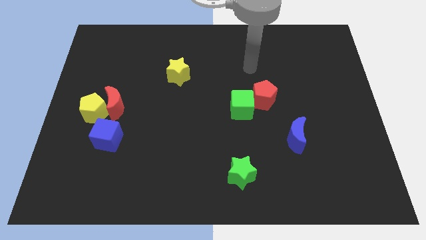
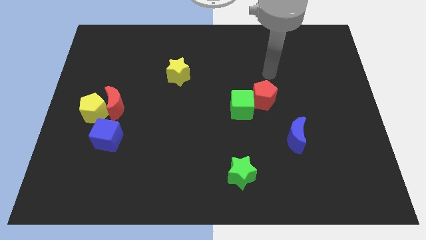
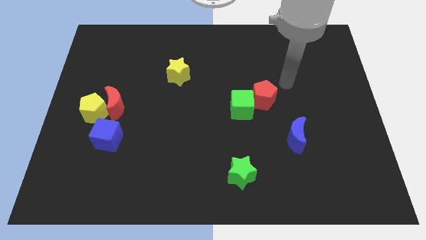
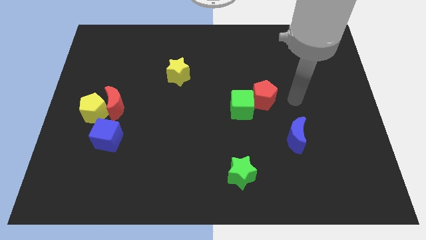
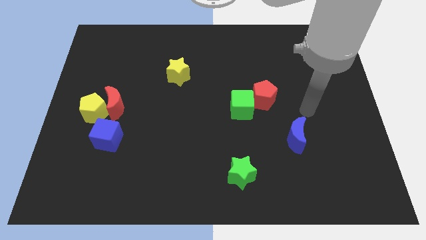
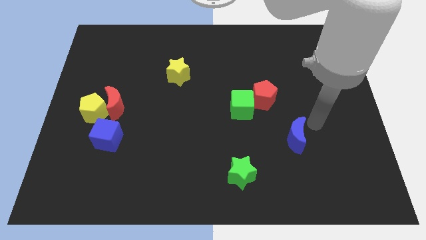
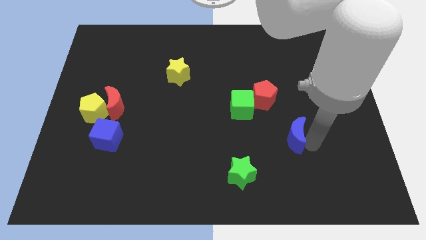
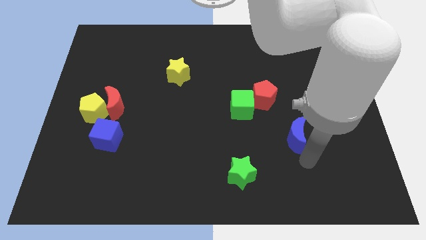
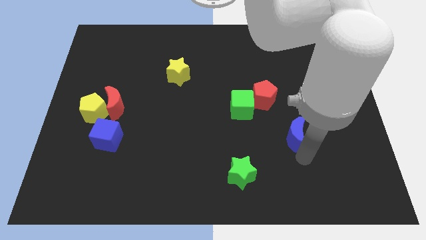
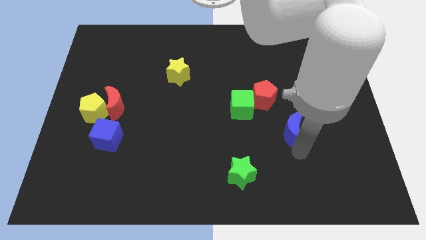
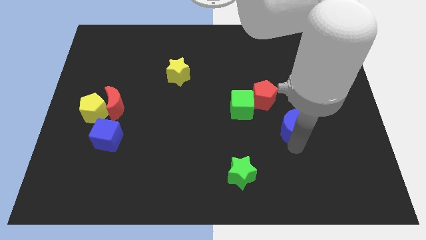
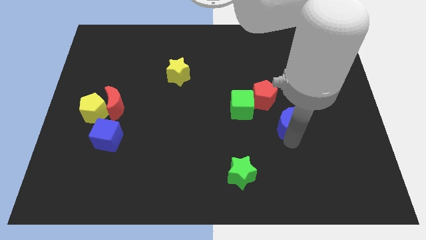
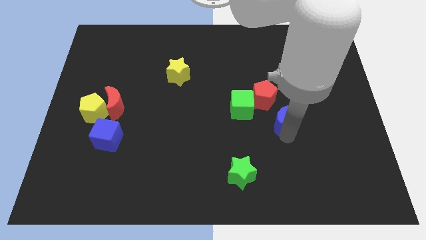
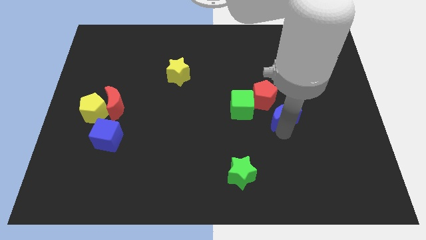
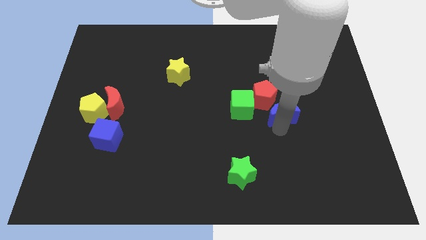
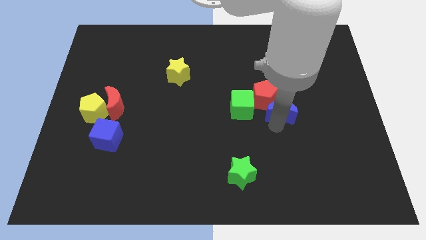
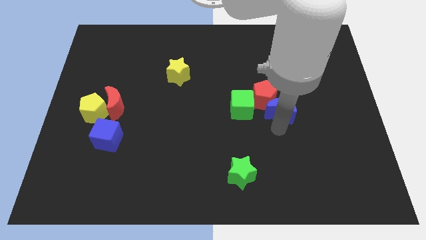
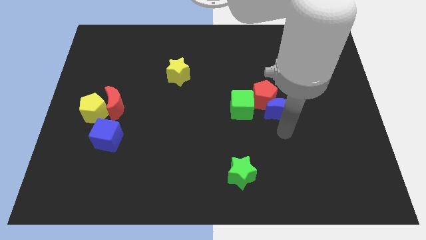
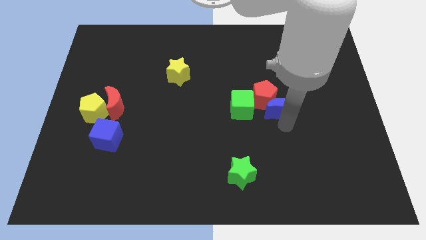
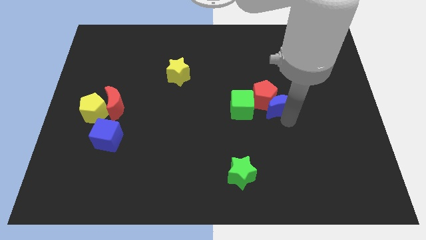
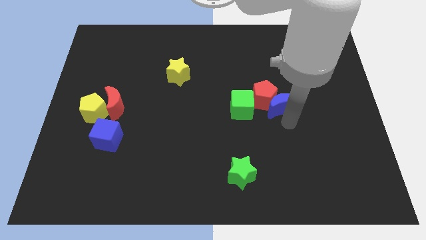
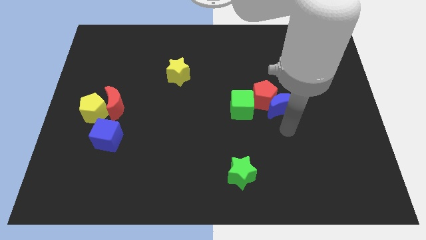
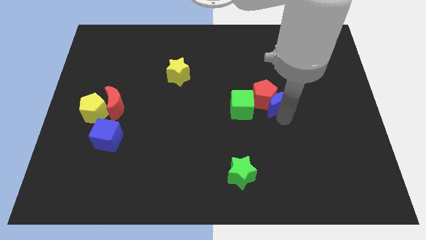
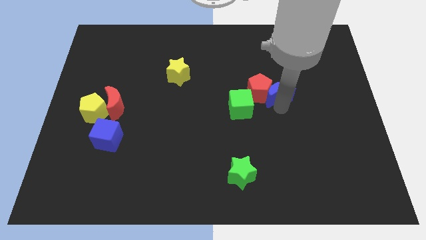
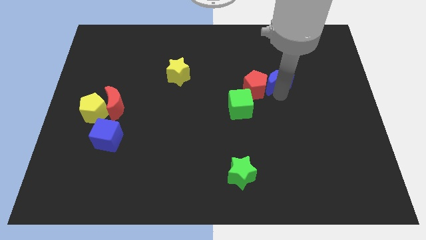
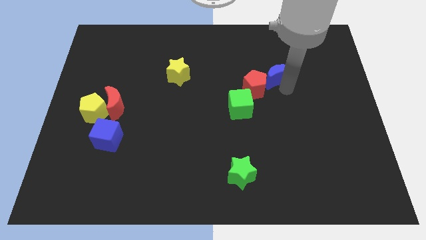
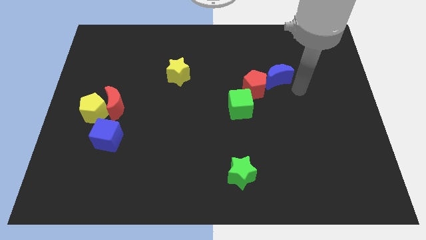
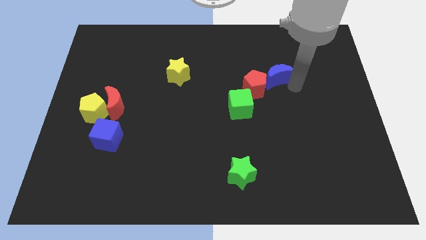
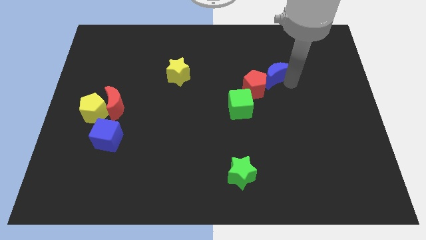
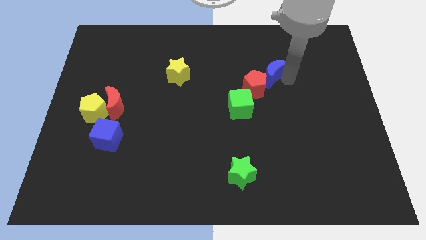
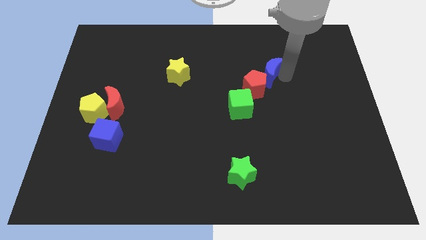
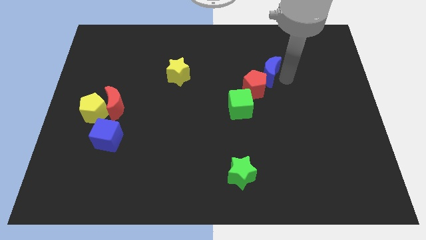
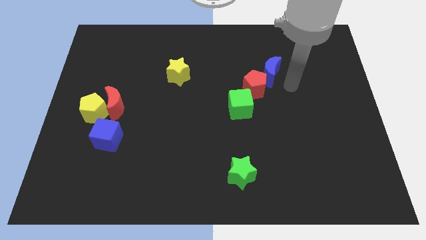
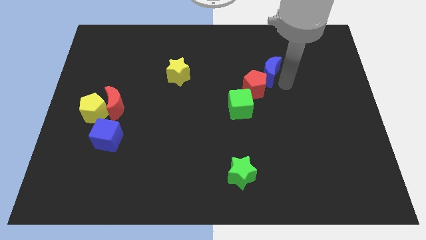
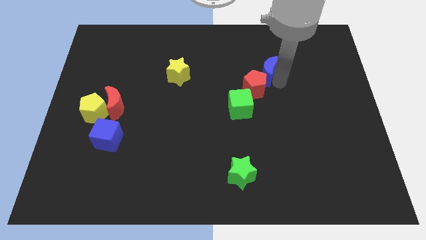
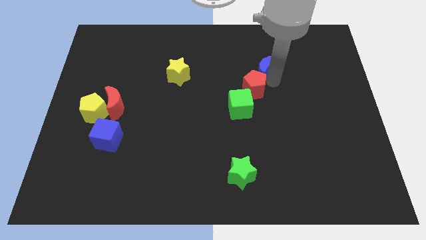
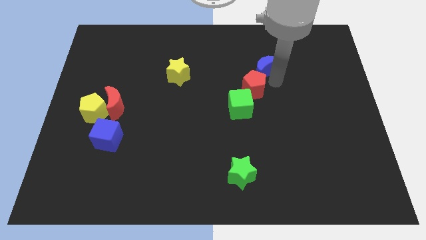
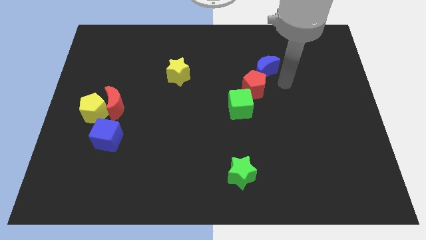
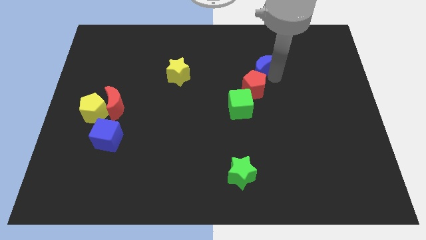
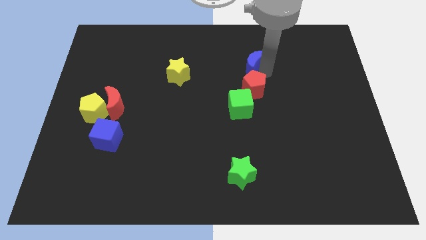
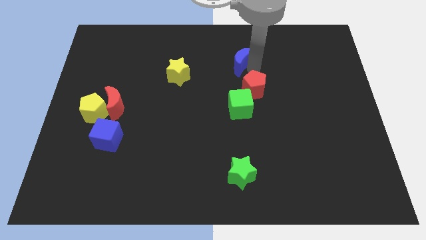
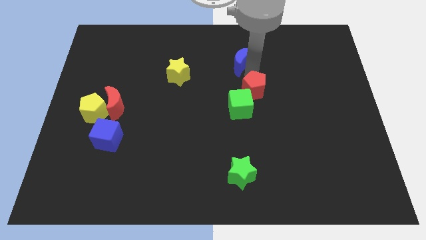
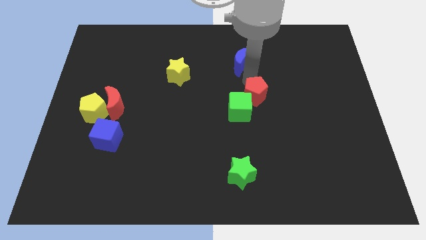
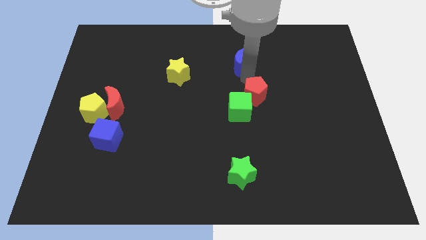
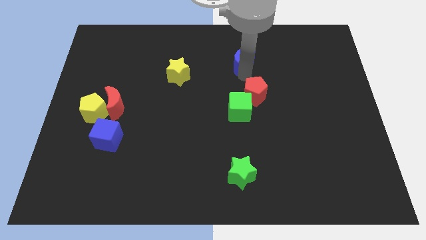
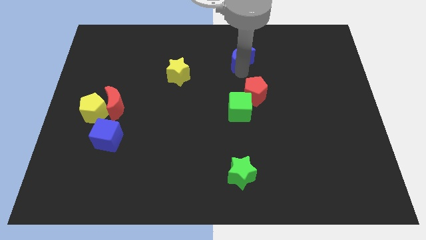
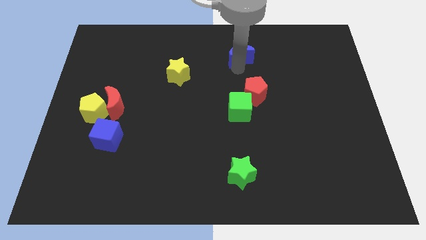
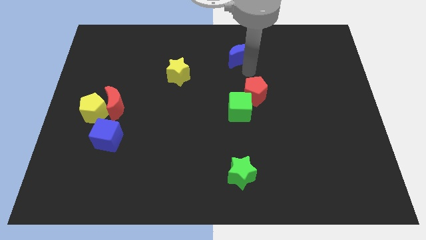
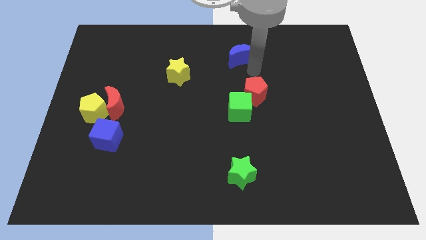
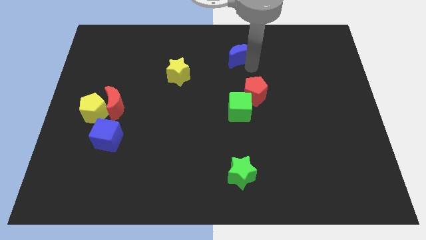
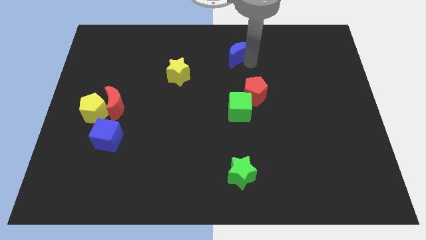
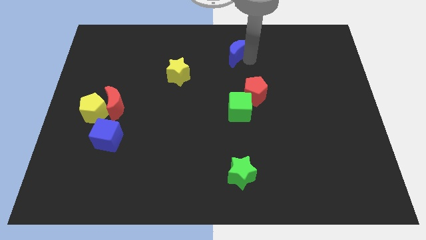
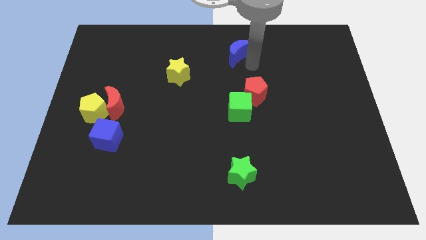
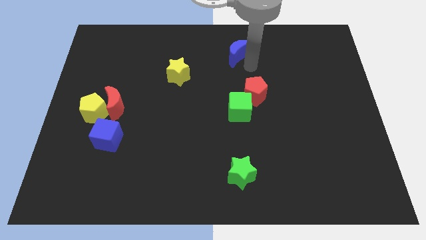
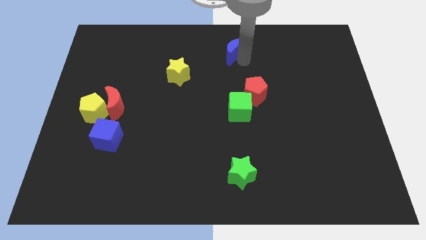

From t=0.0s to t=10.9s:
move the blue moon to the towards your base
